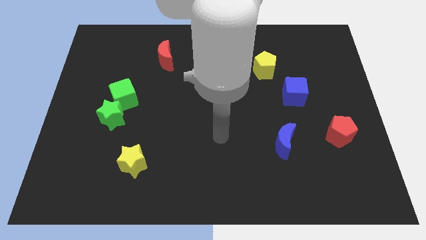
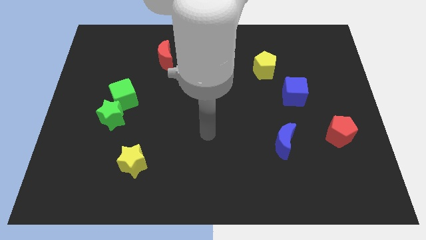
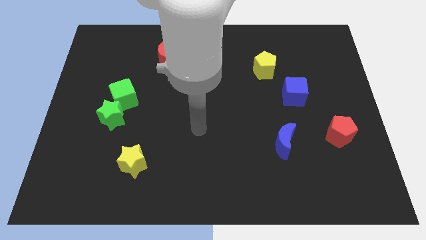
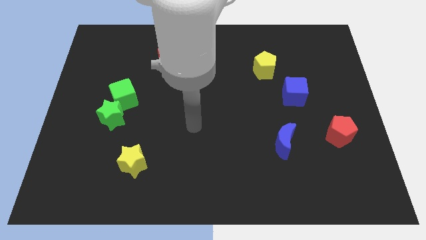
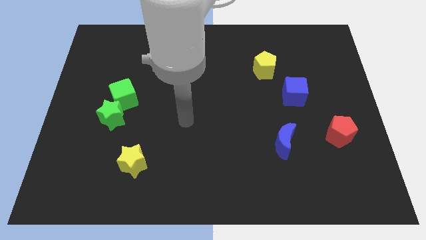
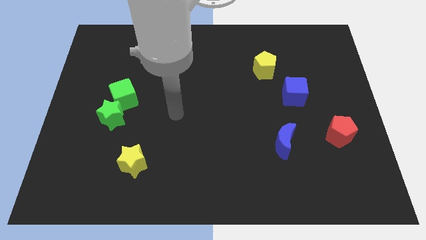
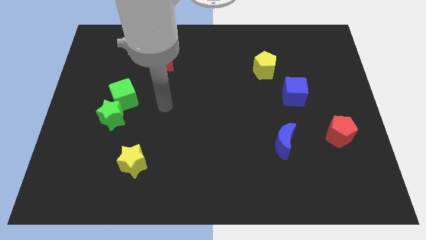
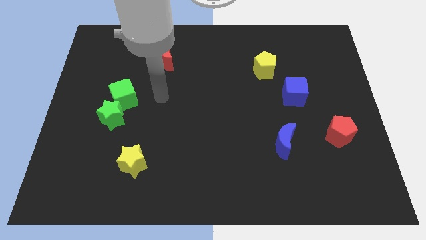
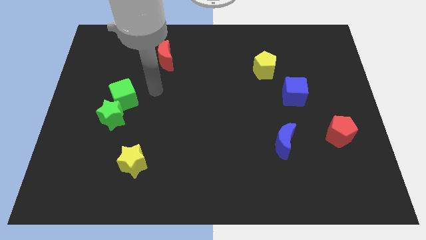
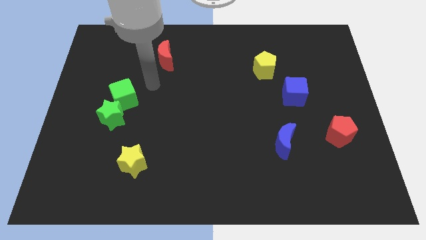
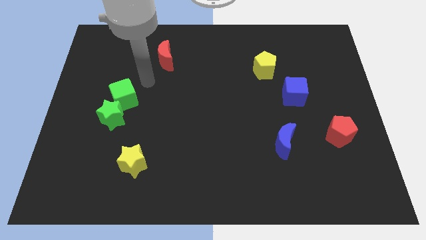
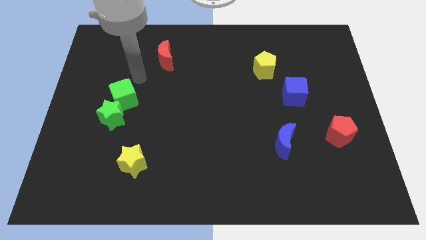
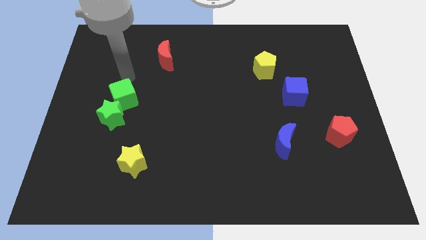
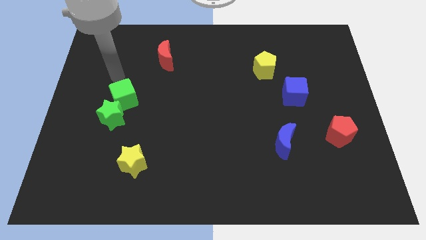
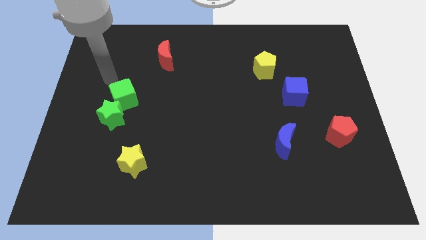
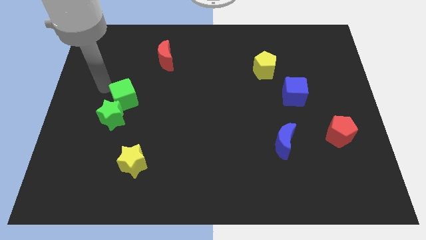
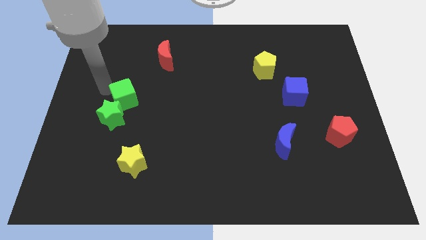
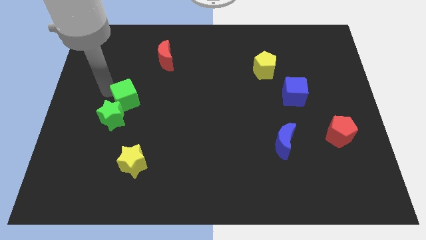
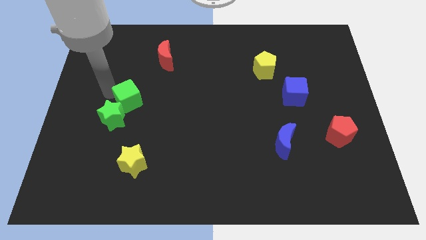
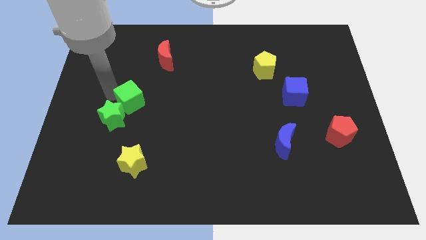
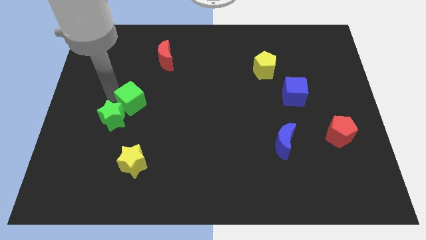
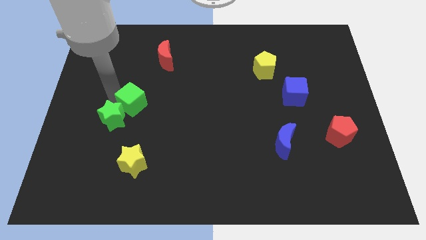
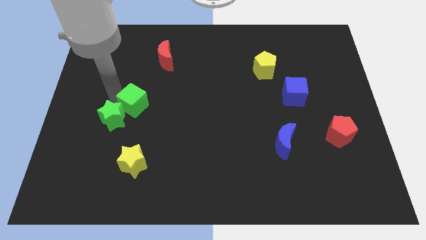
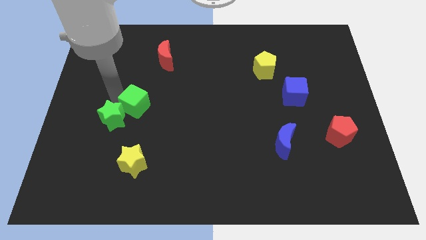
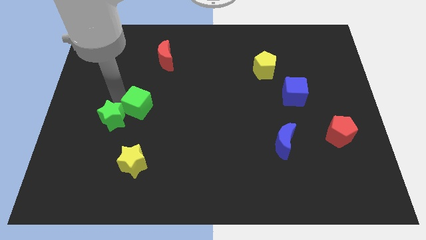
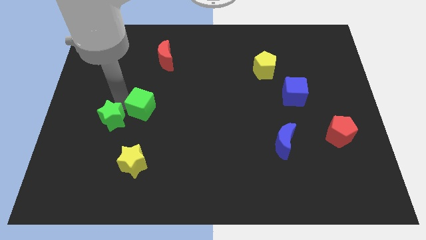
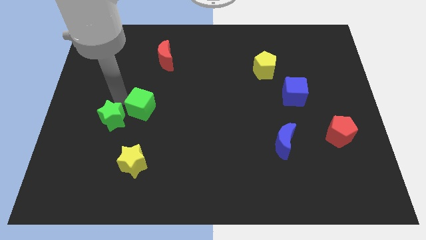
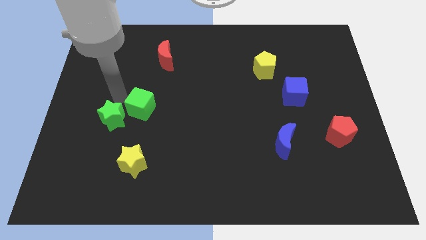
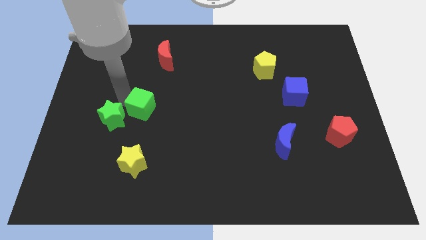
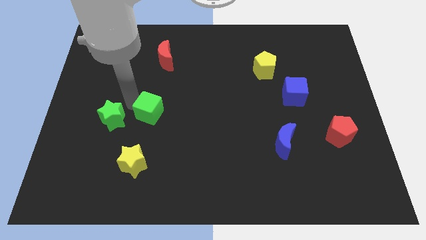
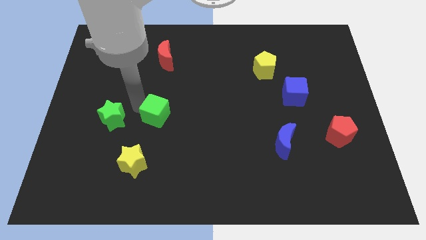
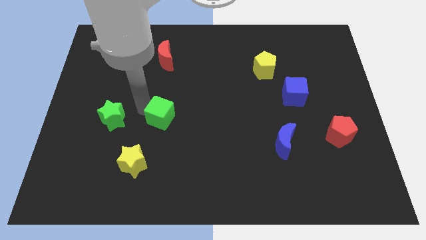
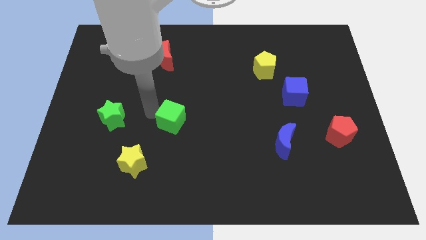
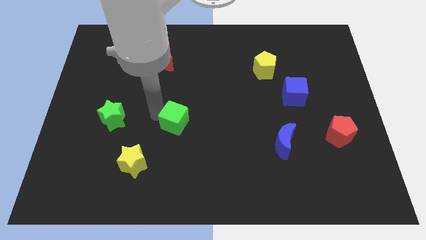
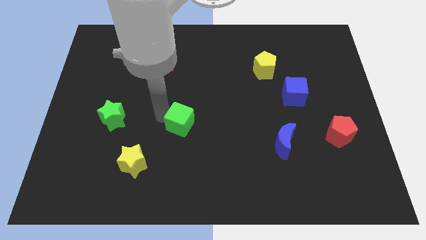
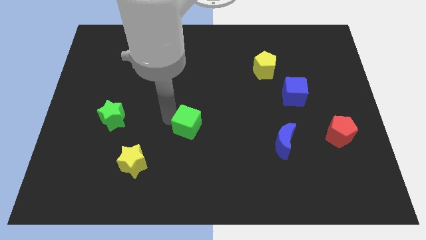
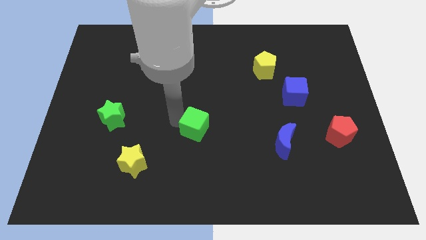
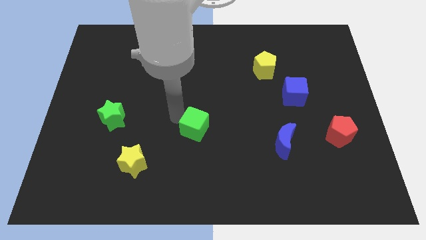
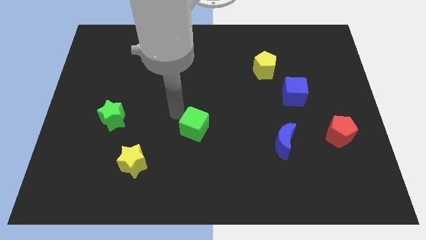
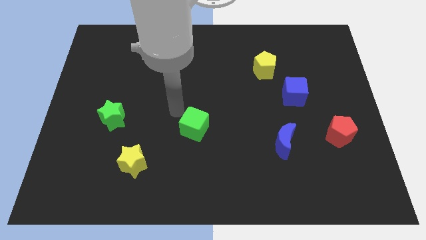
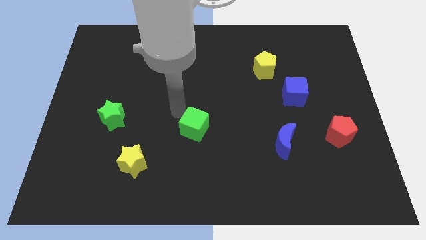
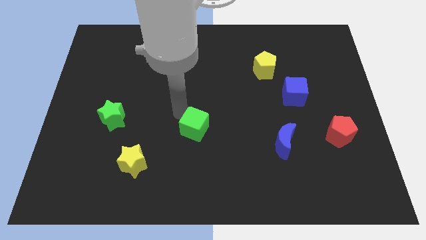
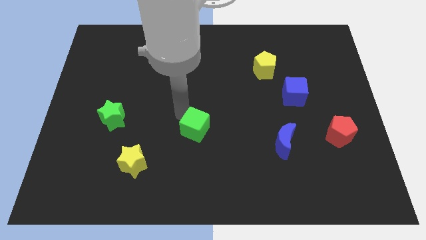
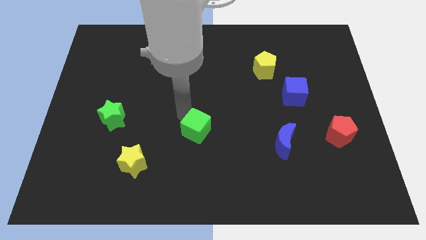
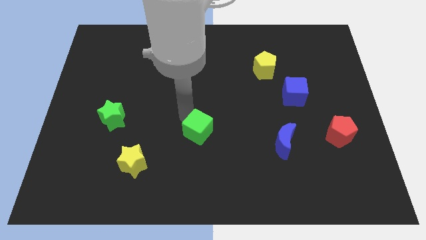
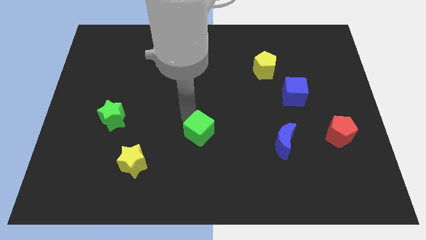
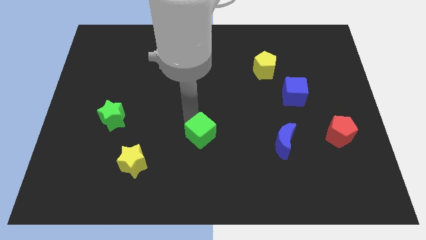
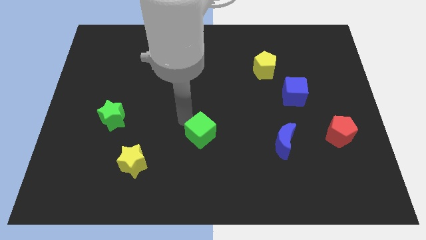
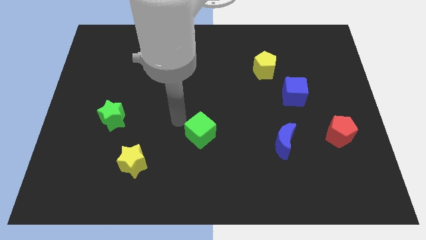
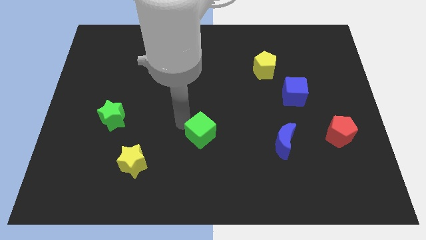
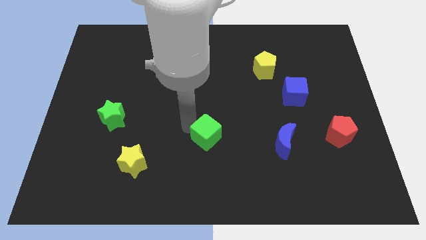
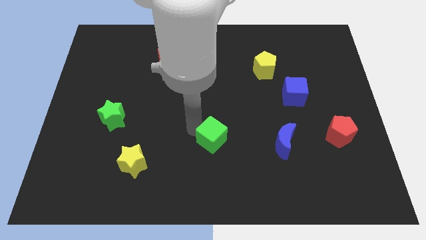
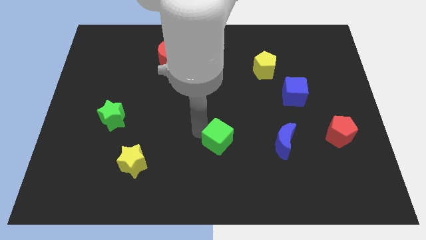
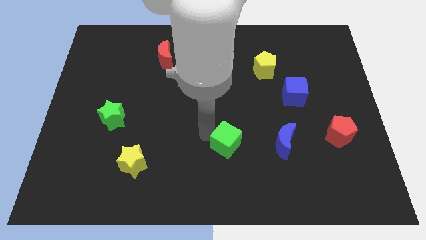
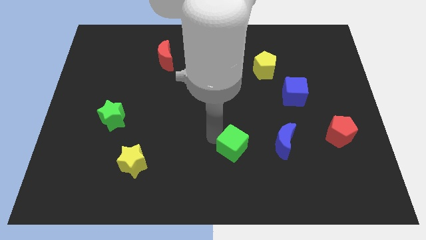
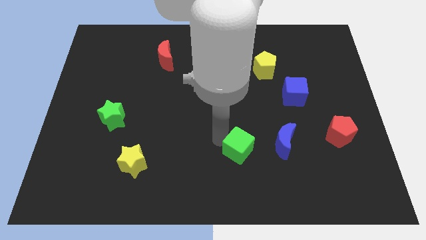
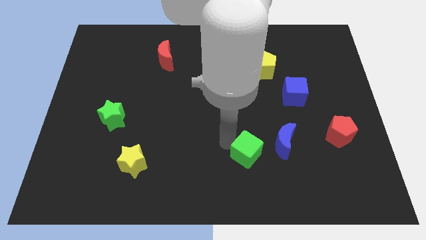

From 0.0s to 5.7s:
move the green cube to the bottom left of the blue moon

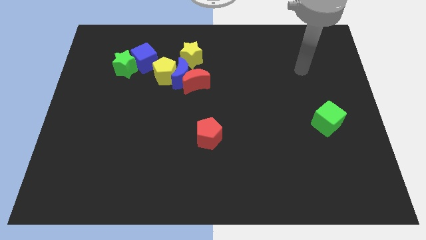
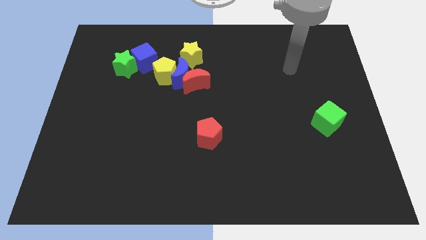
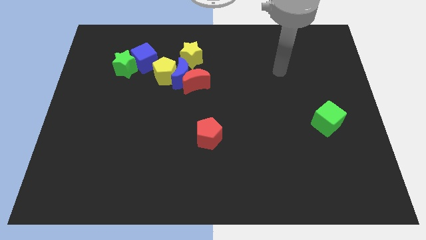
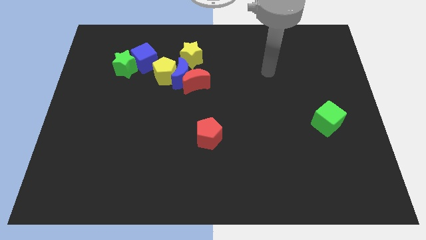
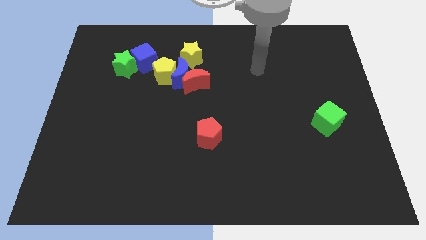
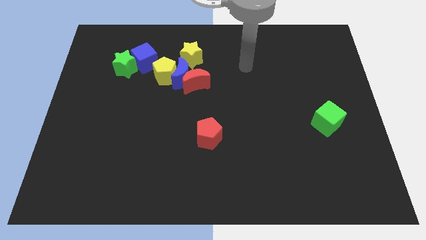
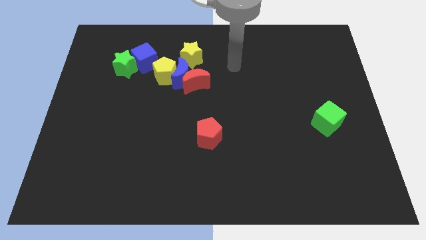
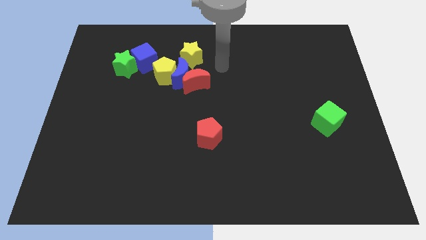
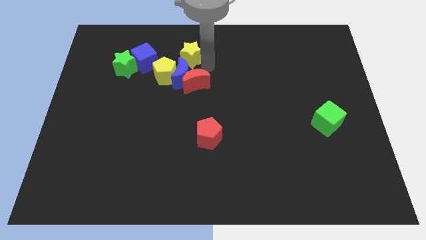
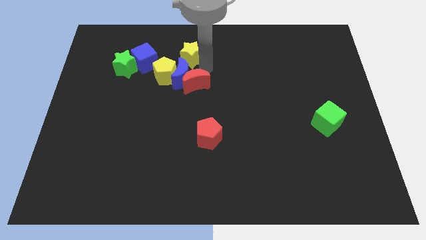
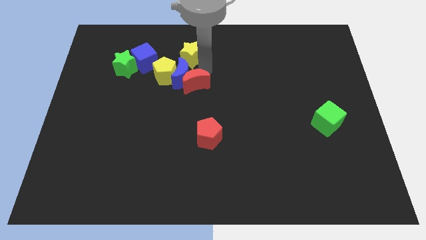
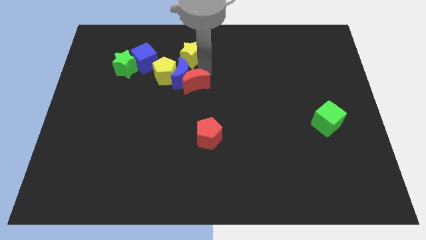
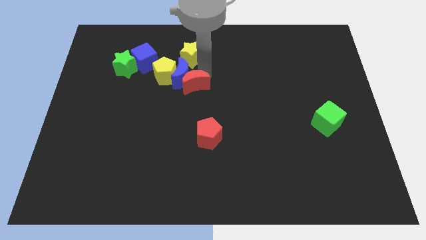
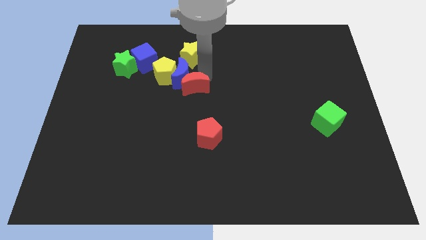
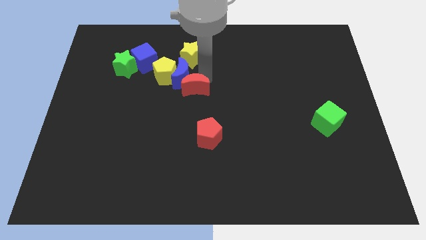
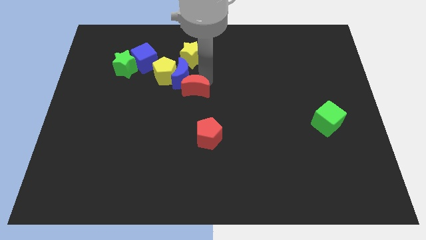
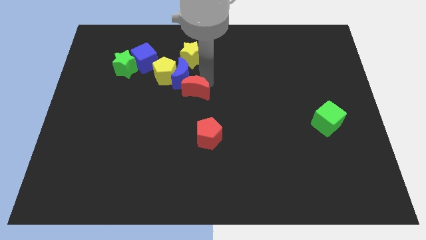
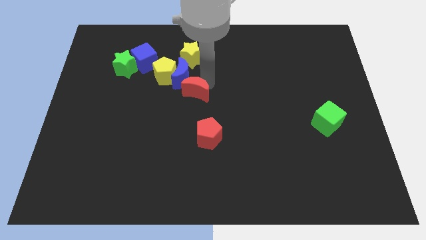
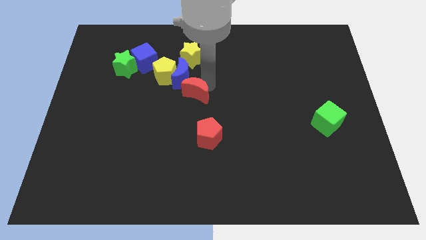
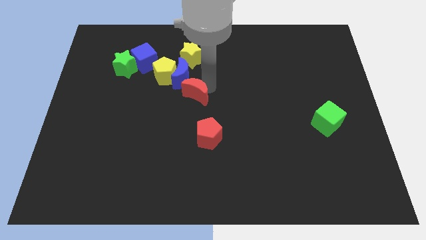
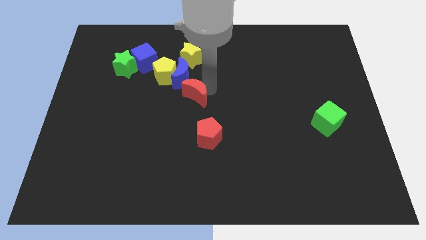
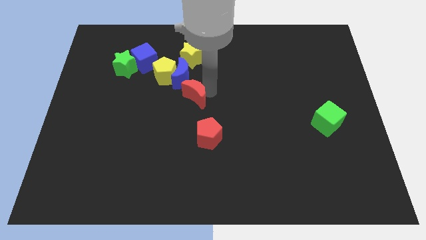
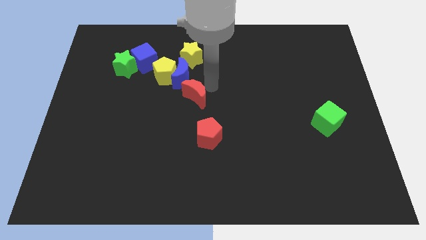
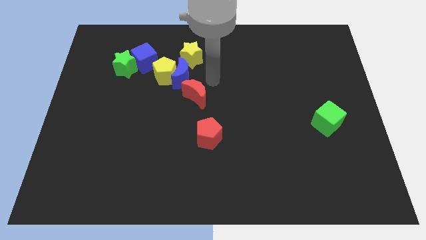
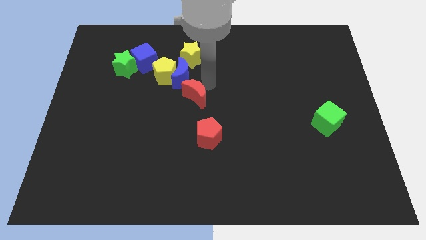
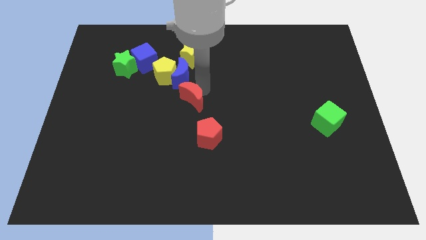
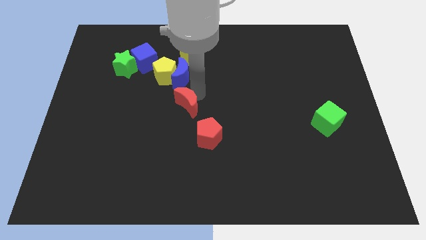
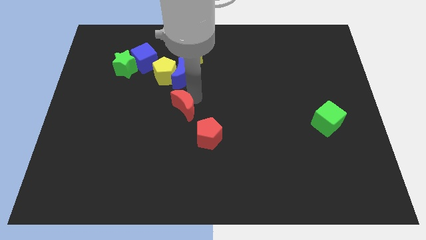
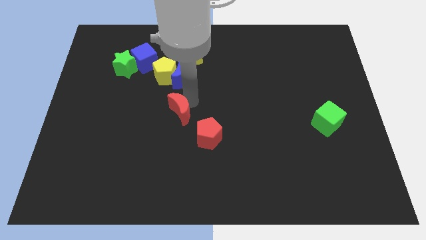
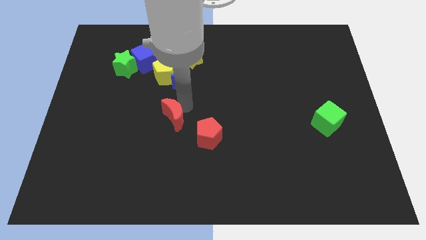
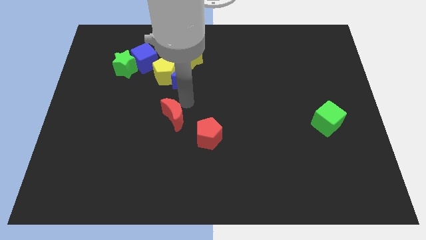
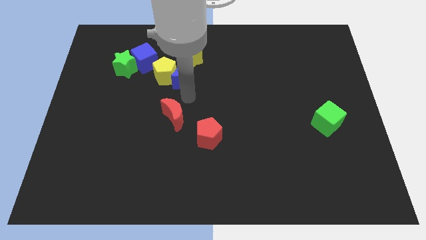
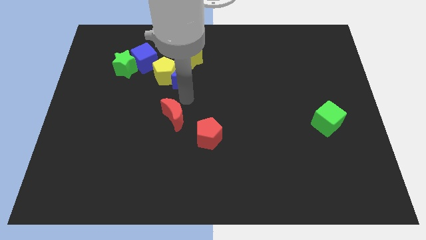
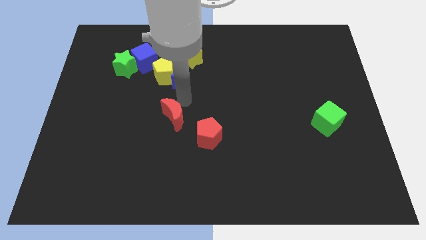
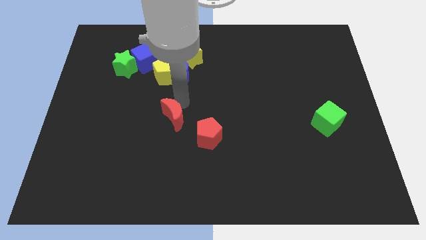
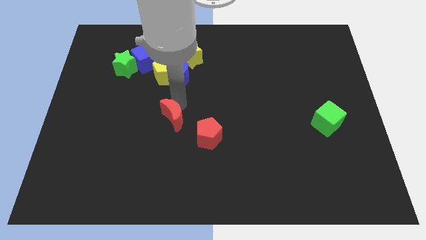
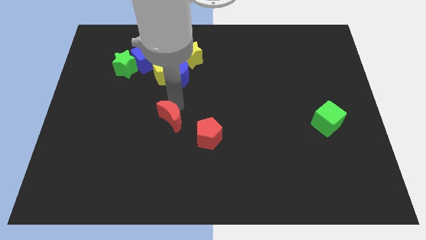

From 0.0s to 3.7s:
push the red moon to the left of the red pentagon
